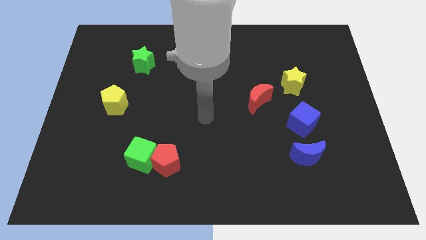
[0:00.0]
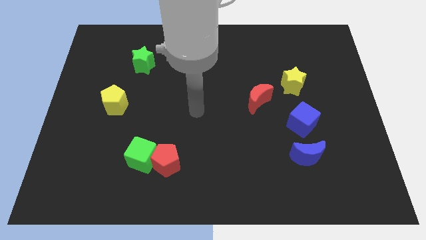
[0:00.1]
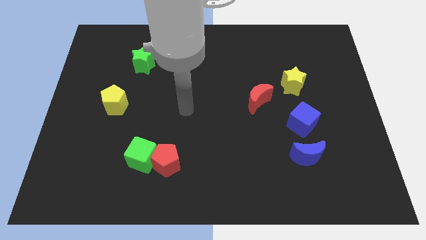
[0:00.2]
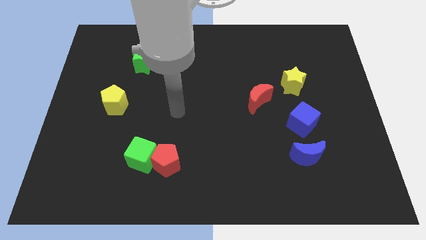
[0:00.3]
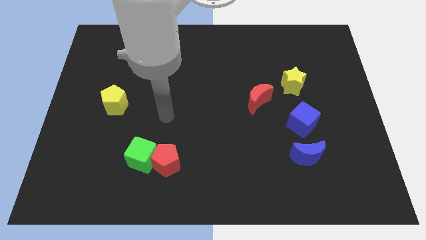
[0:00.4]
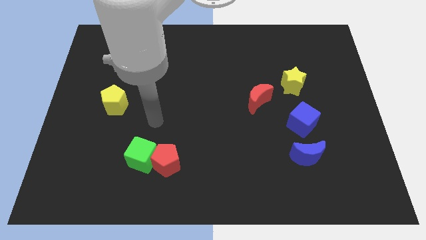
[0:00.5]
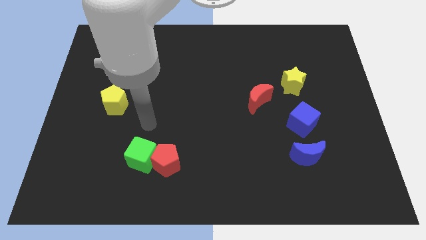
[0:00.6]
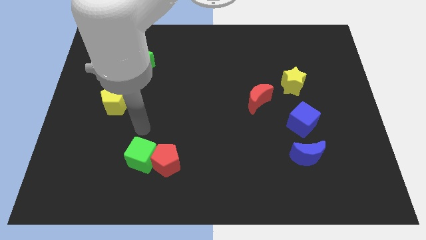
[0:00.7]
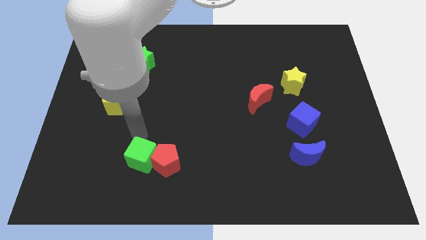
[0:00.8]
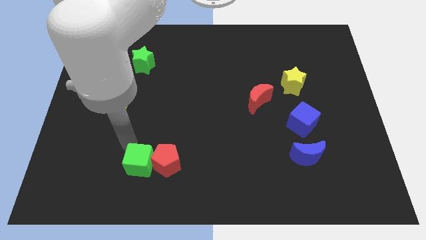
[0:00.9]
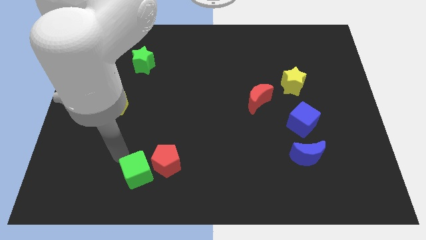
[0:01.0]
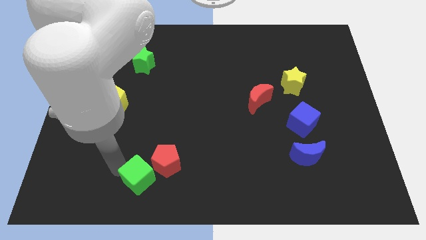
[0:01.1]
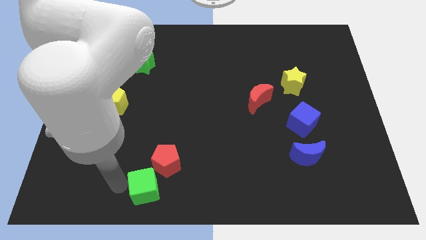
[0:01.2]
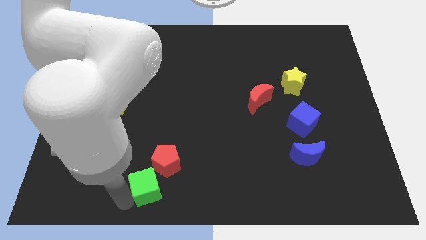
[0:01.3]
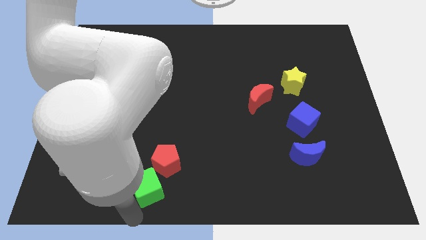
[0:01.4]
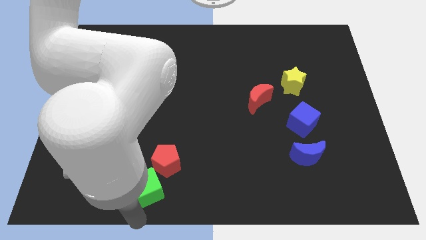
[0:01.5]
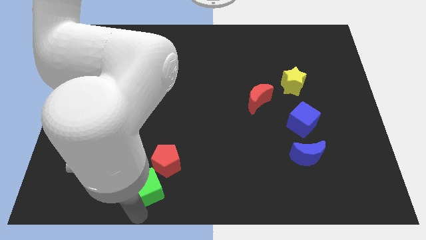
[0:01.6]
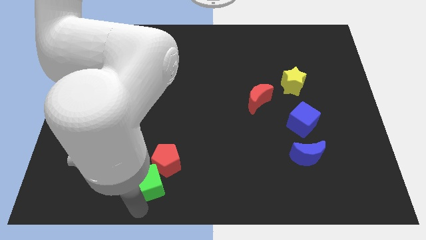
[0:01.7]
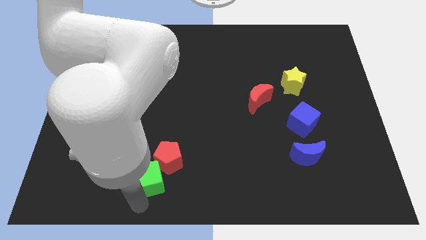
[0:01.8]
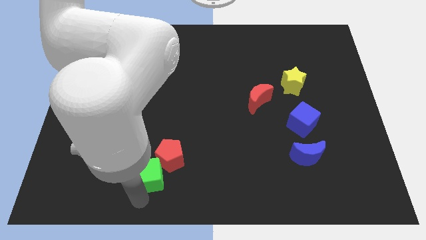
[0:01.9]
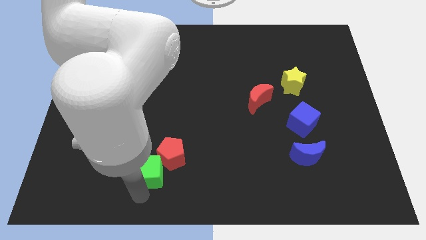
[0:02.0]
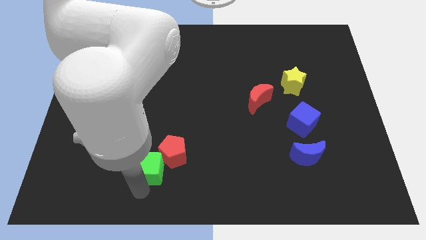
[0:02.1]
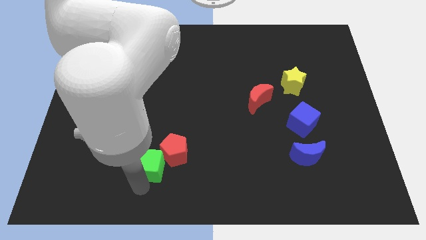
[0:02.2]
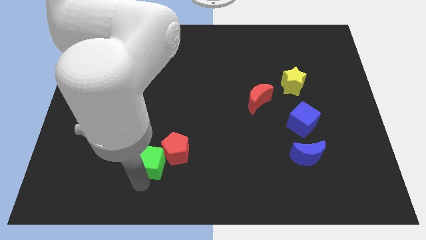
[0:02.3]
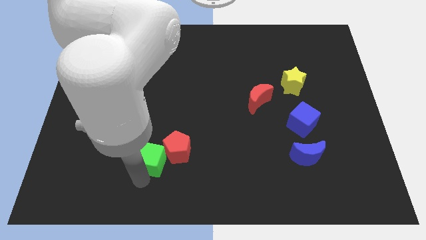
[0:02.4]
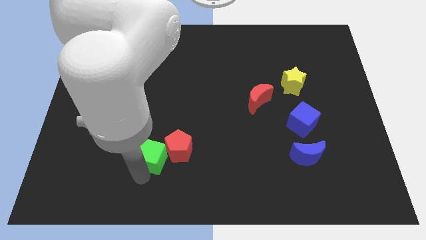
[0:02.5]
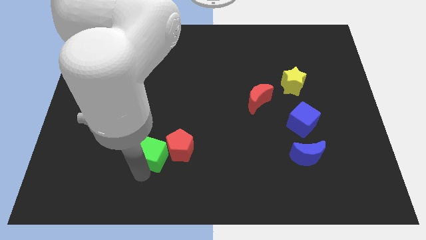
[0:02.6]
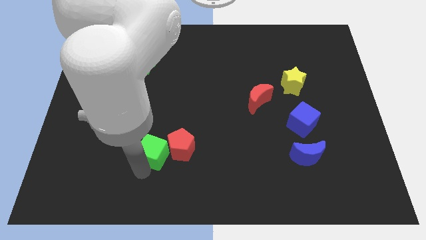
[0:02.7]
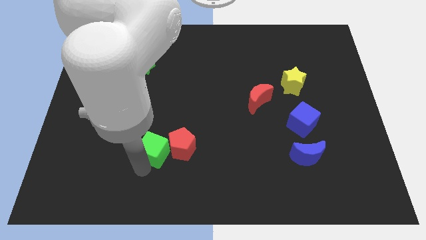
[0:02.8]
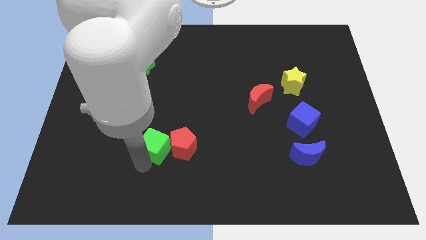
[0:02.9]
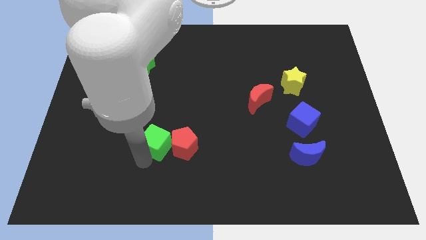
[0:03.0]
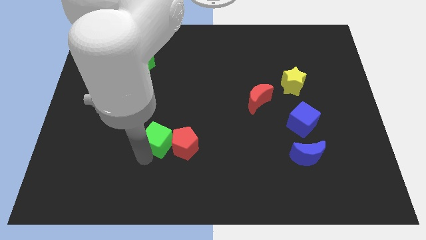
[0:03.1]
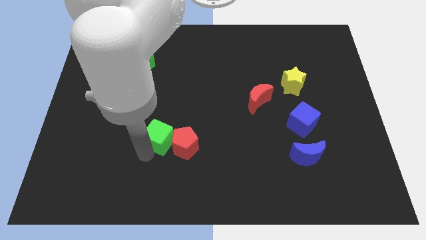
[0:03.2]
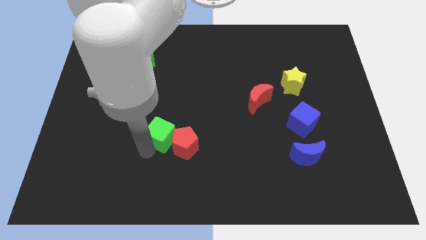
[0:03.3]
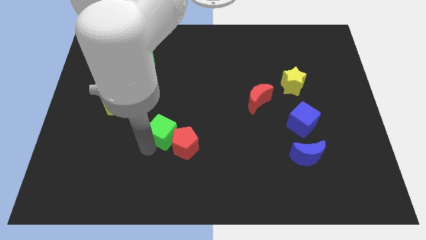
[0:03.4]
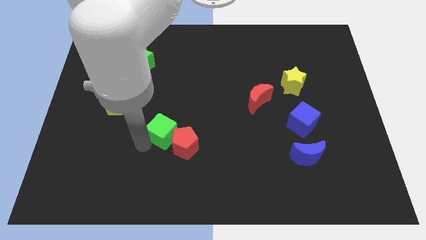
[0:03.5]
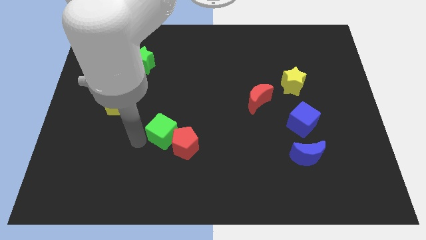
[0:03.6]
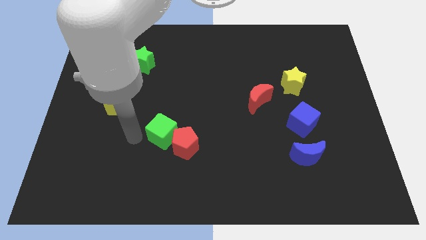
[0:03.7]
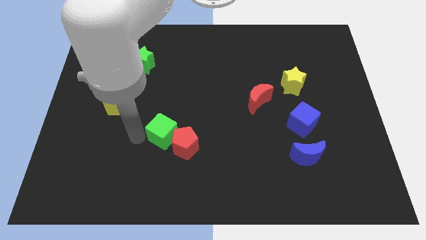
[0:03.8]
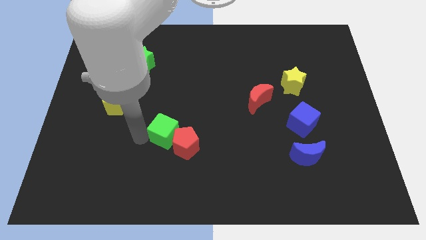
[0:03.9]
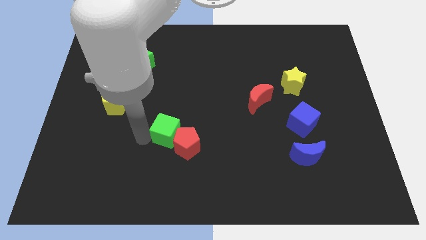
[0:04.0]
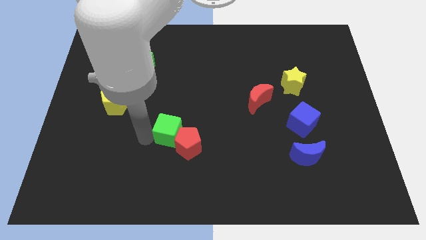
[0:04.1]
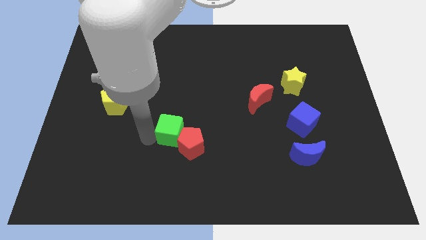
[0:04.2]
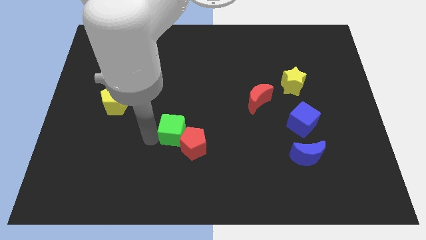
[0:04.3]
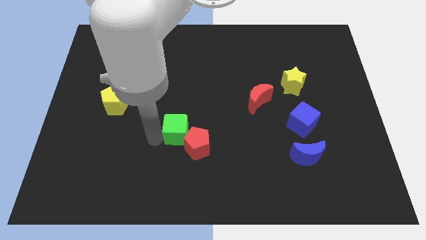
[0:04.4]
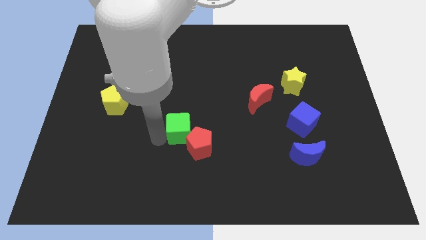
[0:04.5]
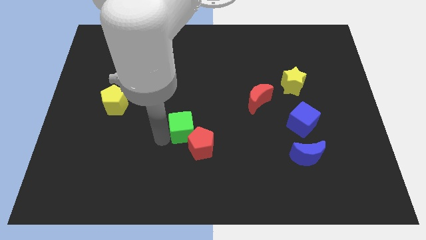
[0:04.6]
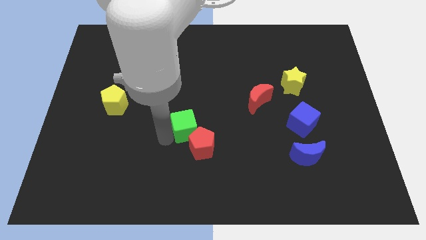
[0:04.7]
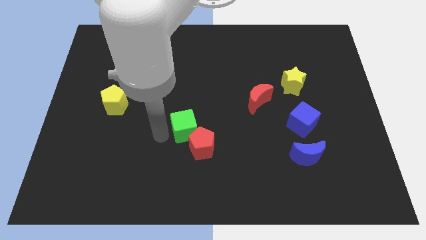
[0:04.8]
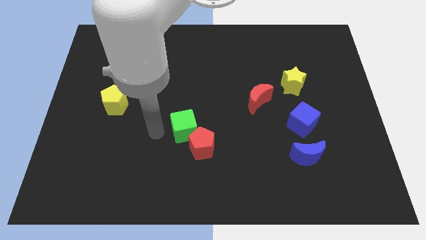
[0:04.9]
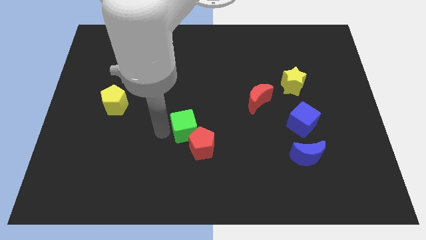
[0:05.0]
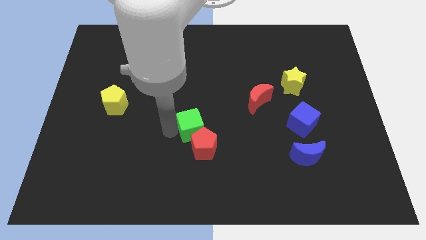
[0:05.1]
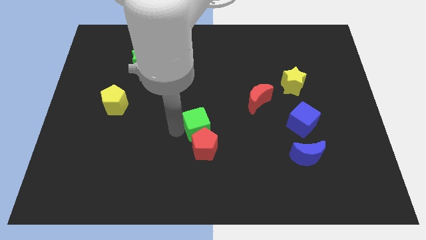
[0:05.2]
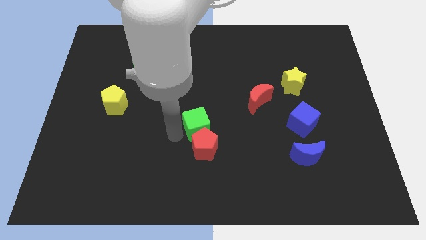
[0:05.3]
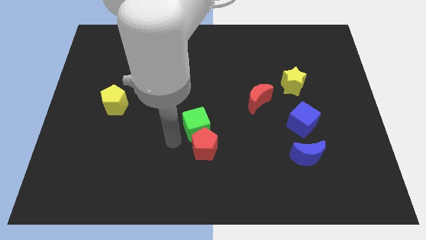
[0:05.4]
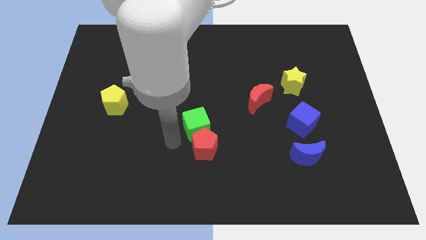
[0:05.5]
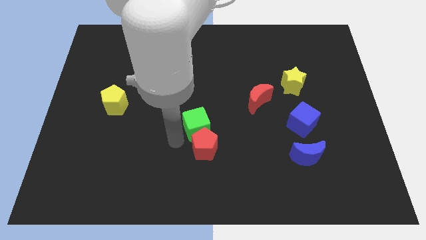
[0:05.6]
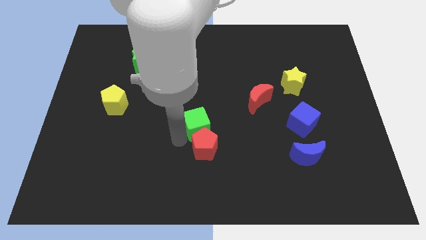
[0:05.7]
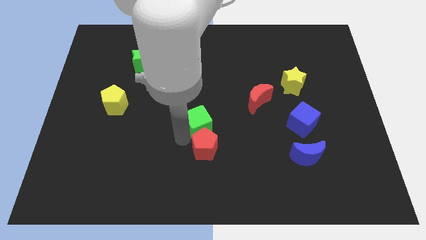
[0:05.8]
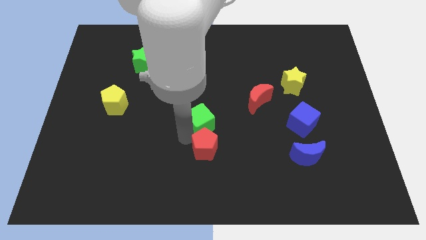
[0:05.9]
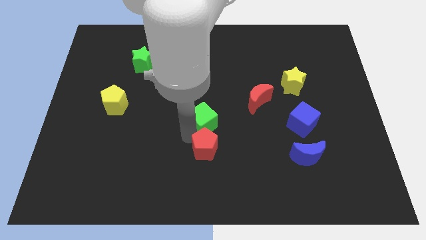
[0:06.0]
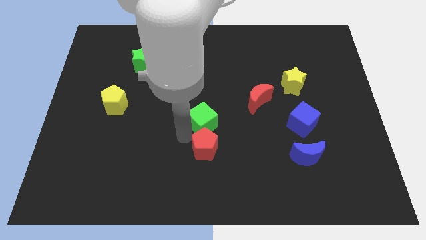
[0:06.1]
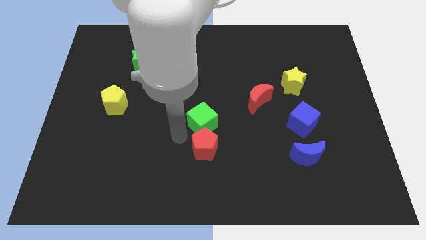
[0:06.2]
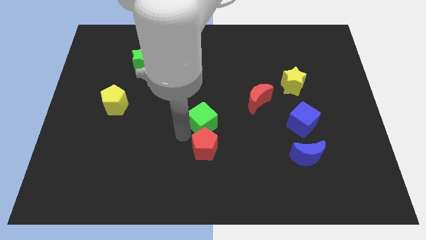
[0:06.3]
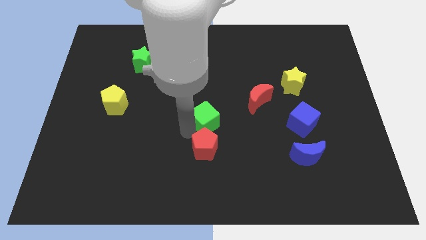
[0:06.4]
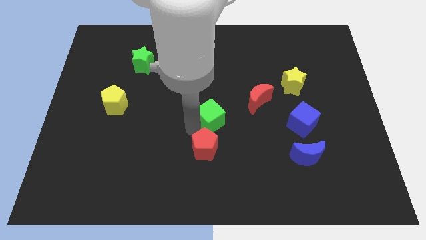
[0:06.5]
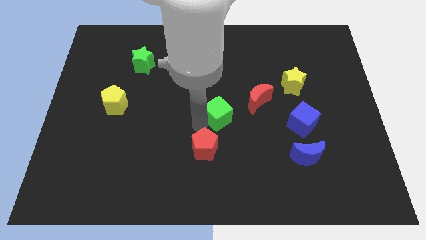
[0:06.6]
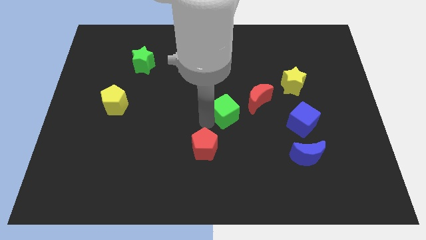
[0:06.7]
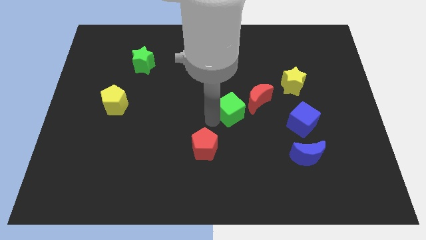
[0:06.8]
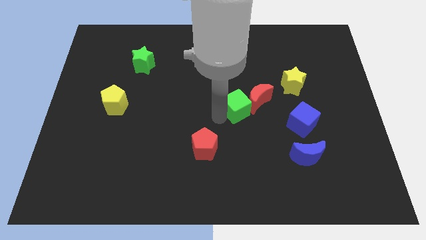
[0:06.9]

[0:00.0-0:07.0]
push the green cube to the red moon

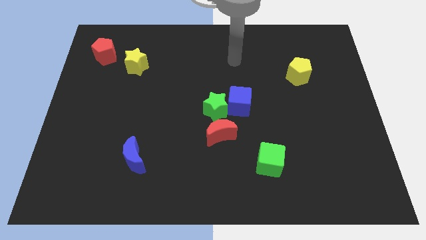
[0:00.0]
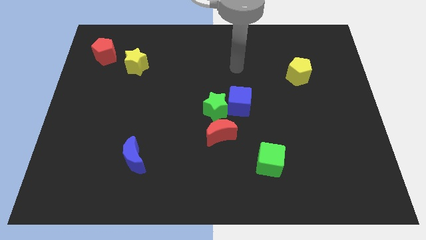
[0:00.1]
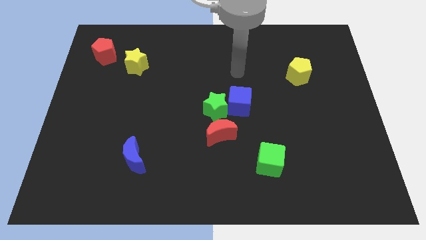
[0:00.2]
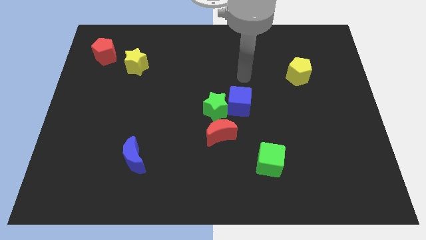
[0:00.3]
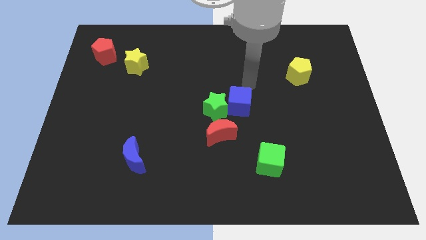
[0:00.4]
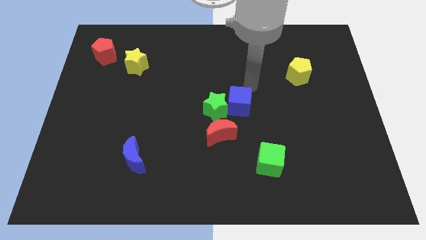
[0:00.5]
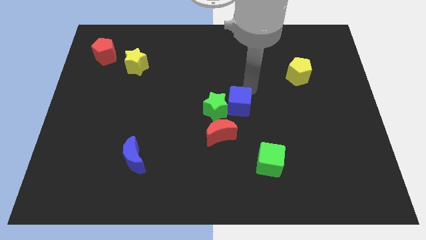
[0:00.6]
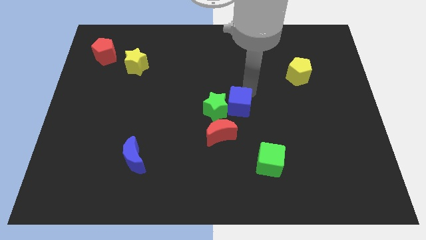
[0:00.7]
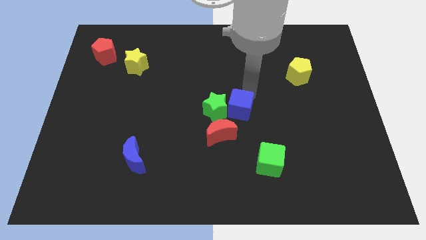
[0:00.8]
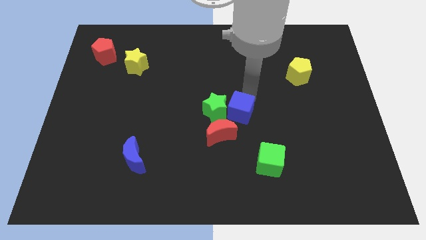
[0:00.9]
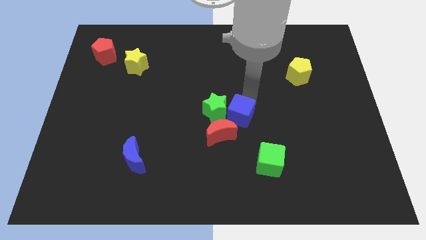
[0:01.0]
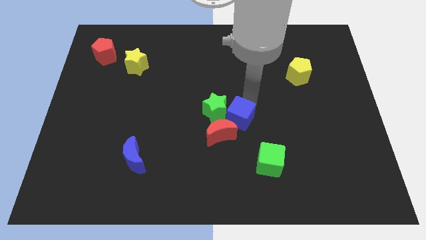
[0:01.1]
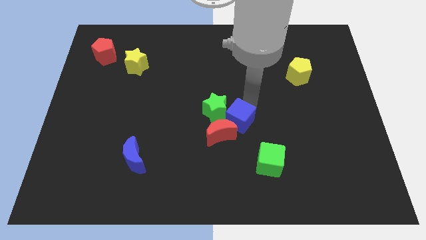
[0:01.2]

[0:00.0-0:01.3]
put the blue cube next to the red moon
